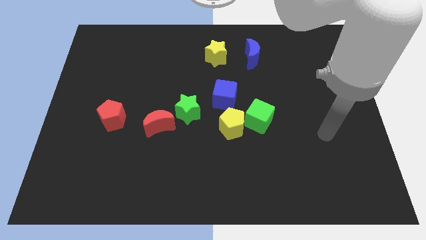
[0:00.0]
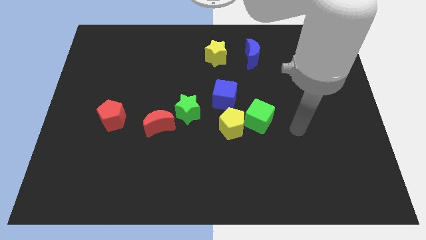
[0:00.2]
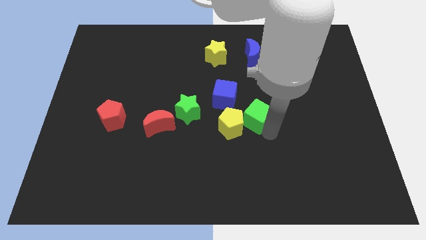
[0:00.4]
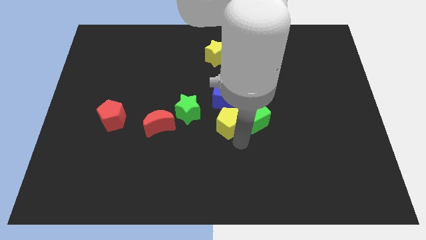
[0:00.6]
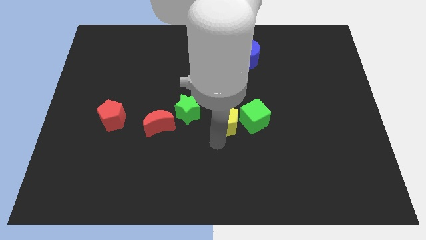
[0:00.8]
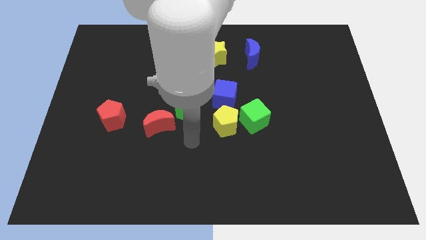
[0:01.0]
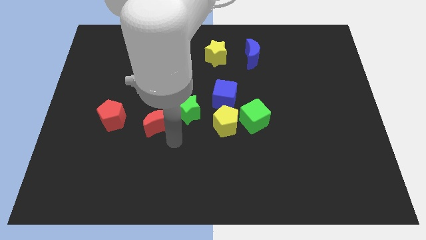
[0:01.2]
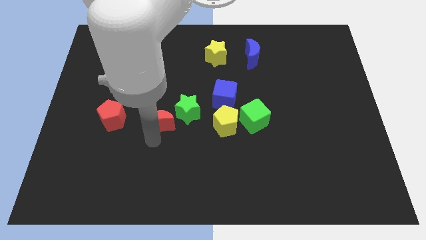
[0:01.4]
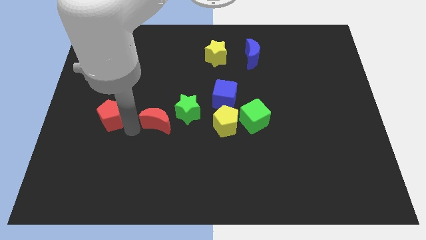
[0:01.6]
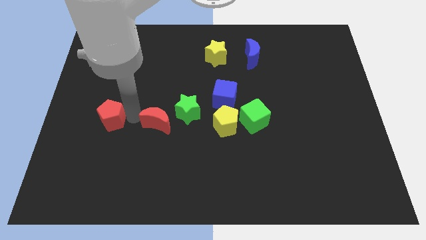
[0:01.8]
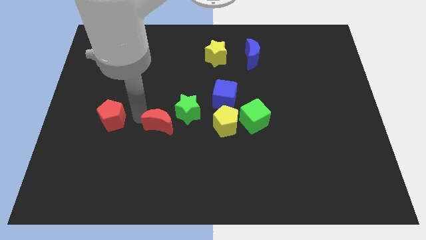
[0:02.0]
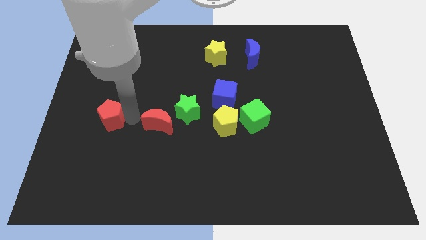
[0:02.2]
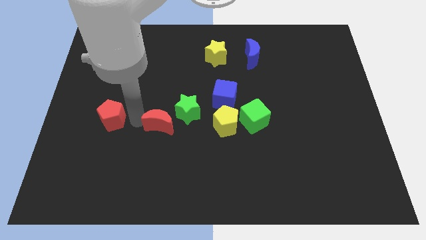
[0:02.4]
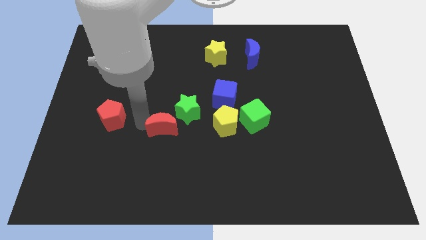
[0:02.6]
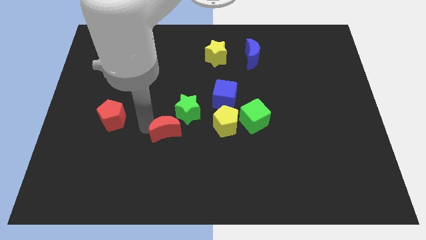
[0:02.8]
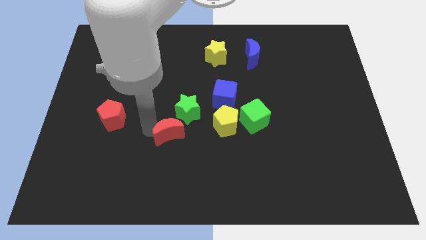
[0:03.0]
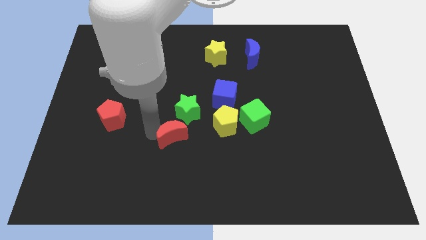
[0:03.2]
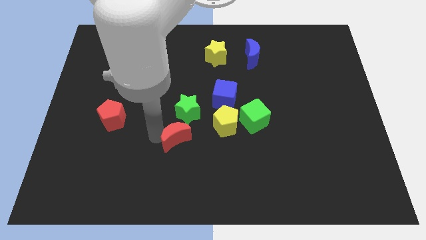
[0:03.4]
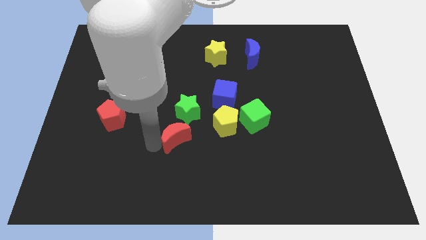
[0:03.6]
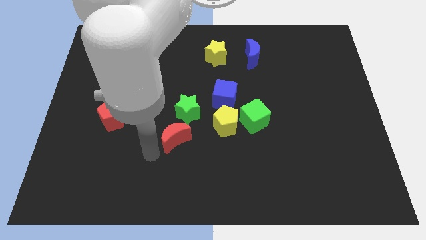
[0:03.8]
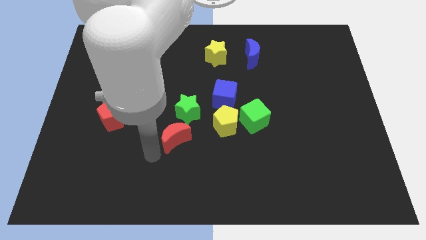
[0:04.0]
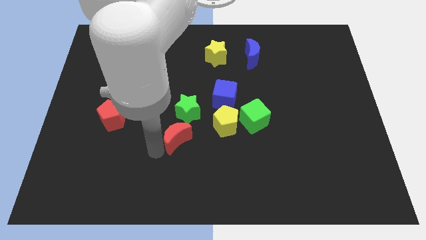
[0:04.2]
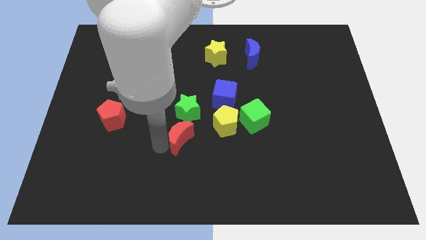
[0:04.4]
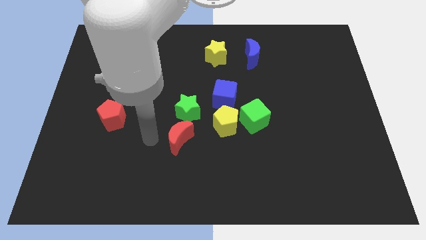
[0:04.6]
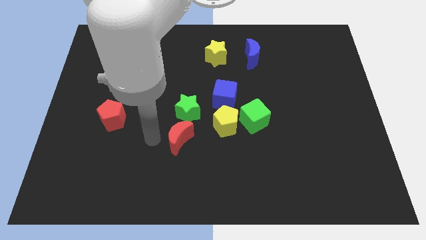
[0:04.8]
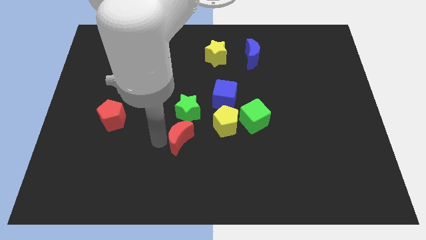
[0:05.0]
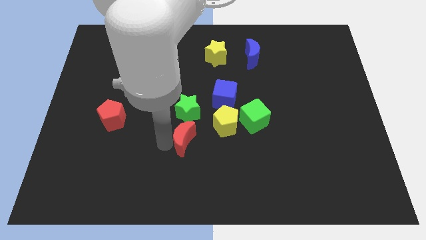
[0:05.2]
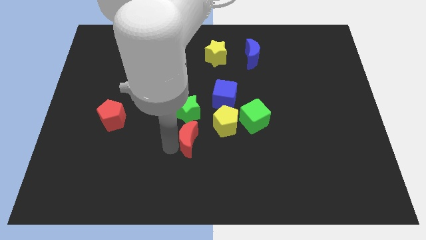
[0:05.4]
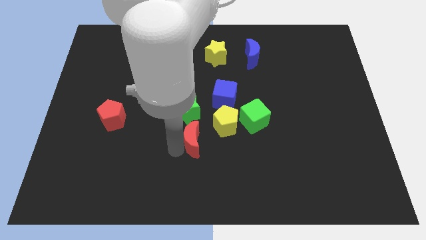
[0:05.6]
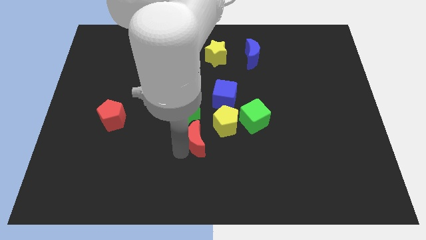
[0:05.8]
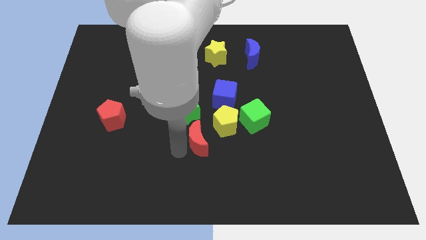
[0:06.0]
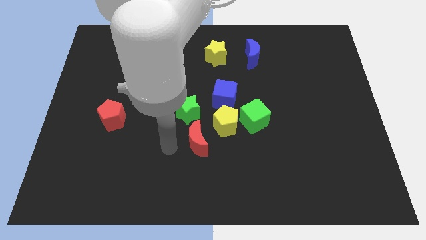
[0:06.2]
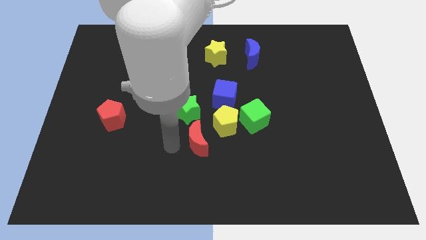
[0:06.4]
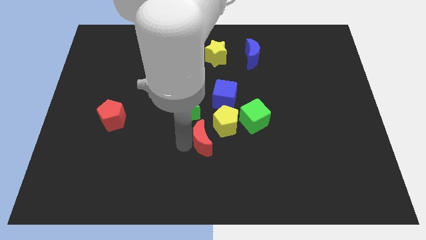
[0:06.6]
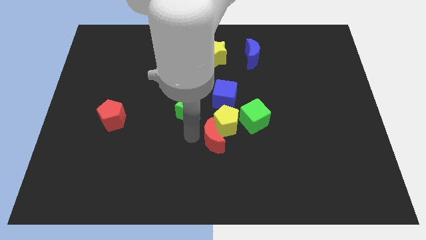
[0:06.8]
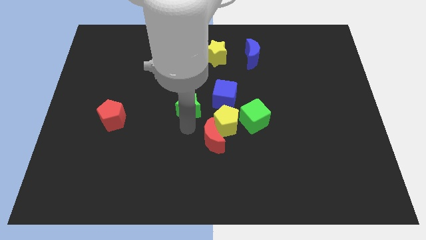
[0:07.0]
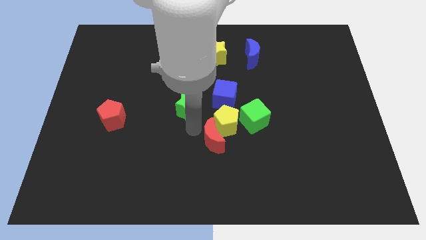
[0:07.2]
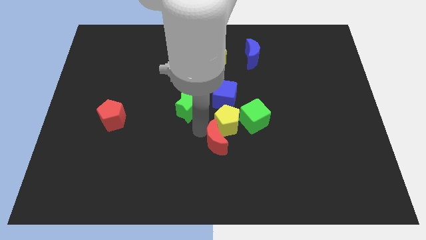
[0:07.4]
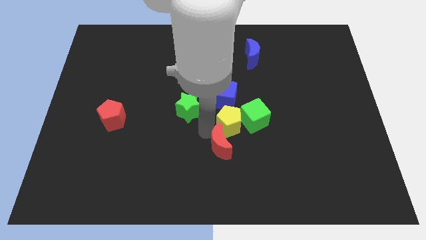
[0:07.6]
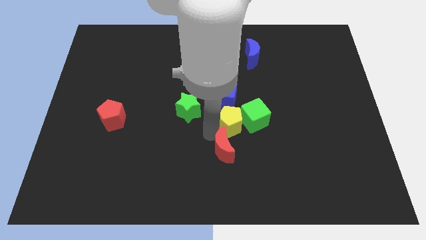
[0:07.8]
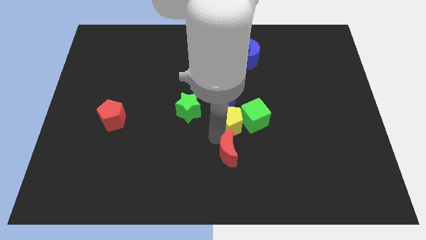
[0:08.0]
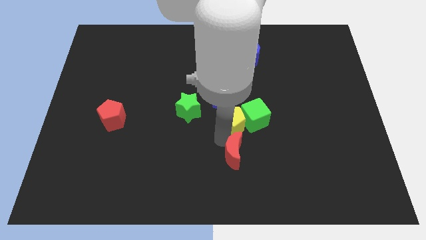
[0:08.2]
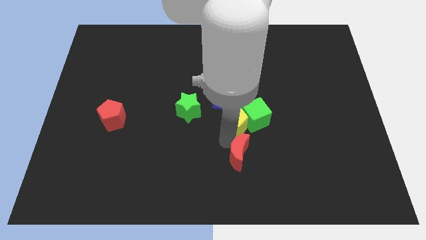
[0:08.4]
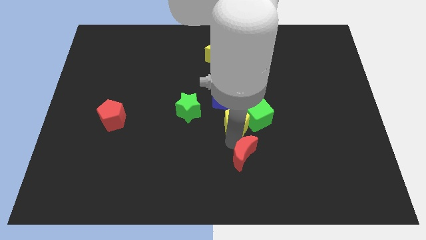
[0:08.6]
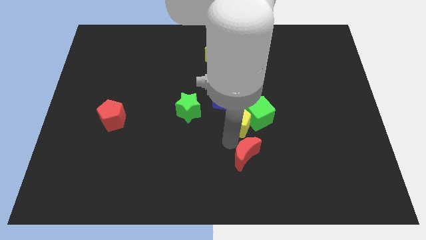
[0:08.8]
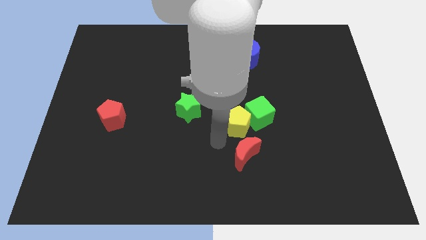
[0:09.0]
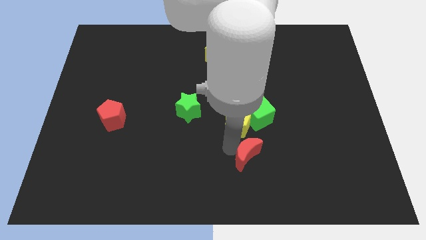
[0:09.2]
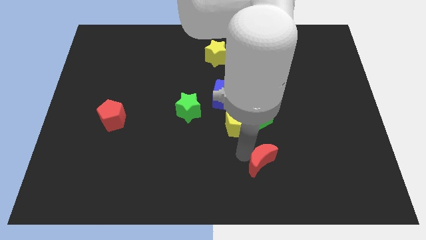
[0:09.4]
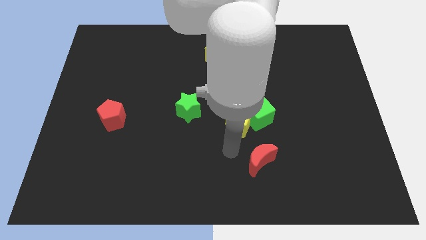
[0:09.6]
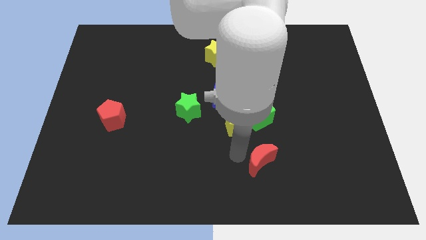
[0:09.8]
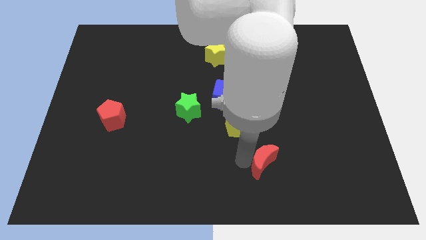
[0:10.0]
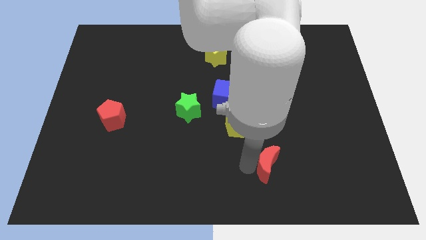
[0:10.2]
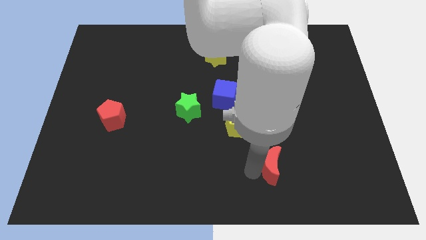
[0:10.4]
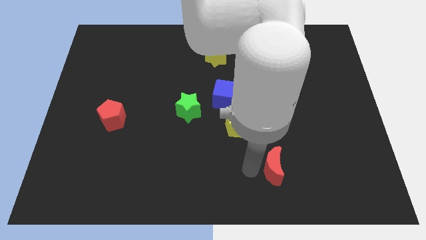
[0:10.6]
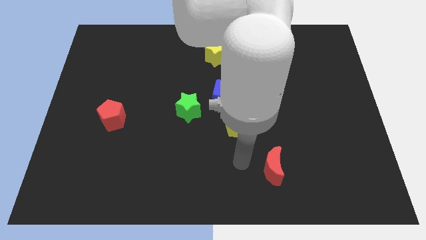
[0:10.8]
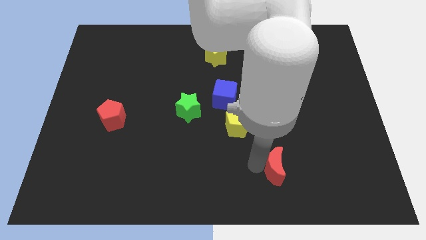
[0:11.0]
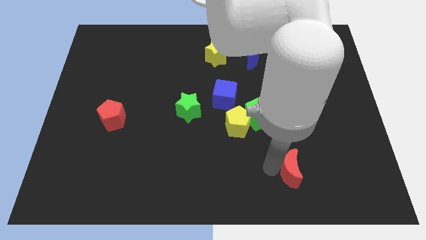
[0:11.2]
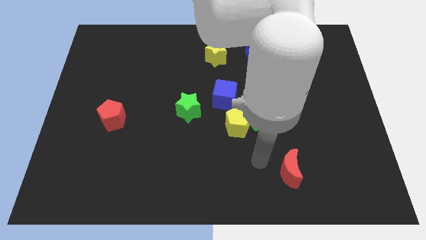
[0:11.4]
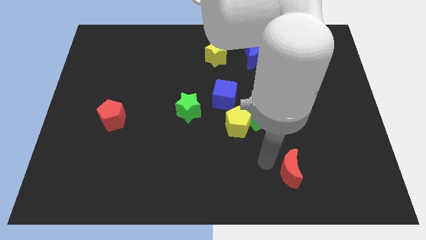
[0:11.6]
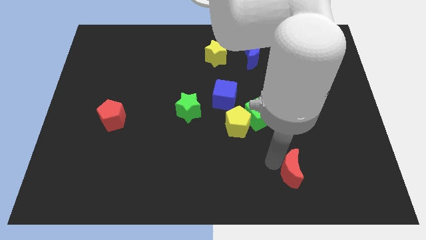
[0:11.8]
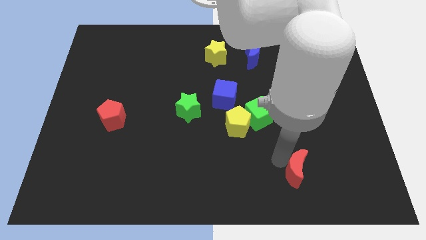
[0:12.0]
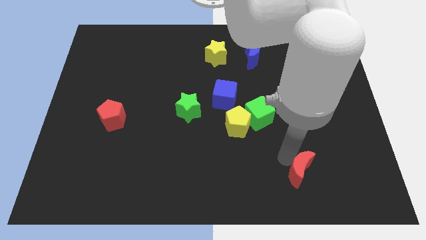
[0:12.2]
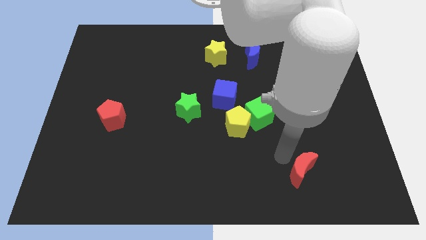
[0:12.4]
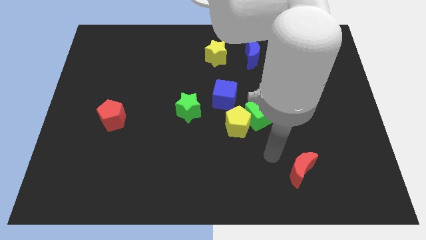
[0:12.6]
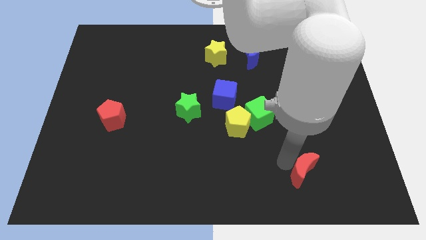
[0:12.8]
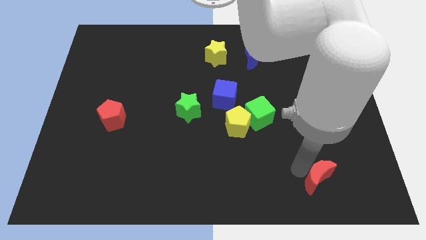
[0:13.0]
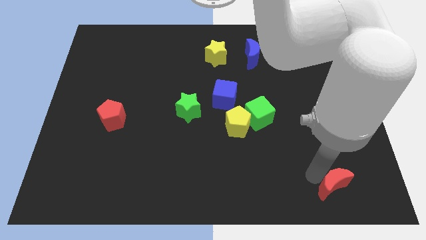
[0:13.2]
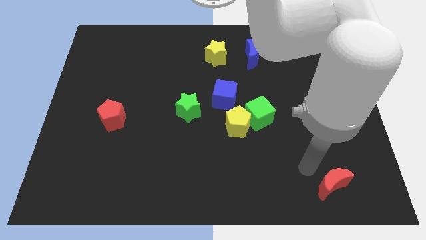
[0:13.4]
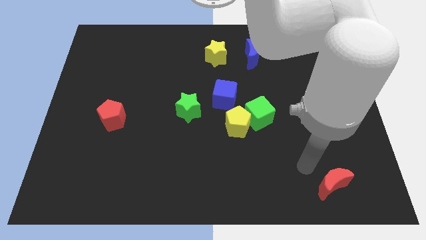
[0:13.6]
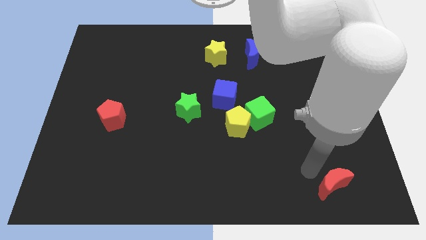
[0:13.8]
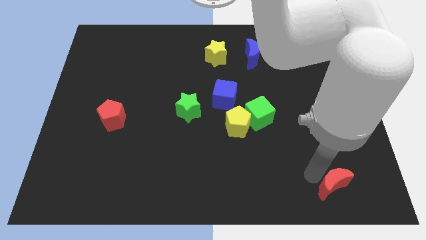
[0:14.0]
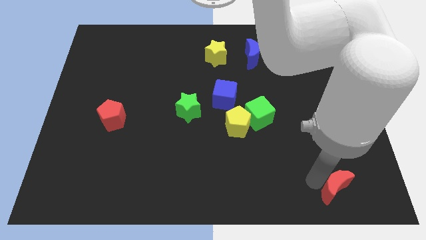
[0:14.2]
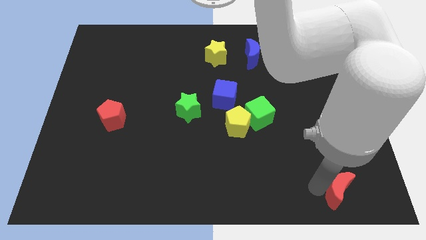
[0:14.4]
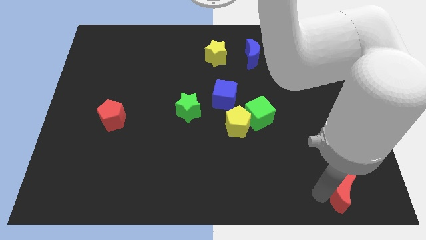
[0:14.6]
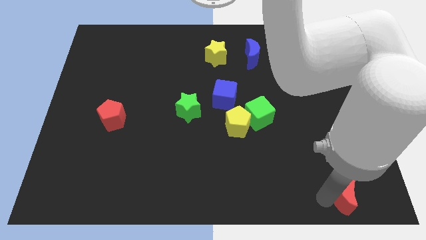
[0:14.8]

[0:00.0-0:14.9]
put the red moon to the bottom right corner
